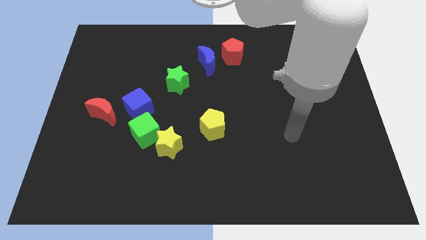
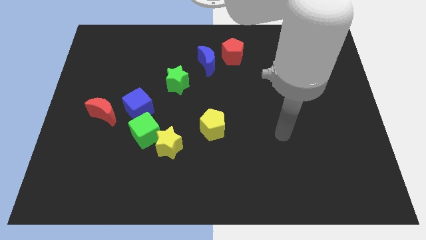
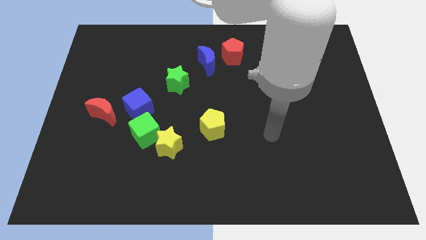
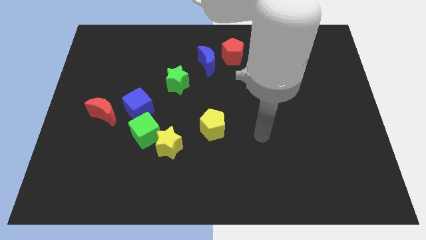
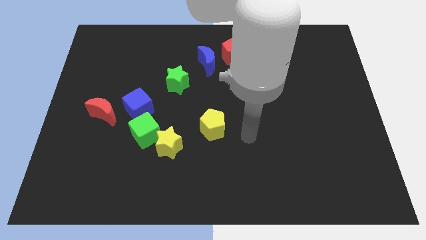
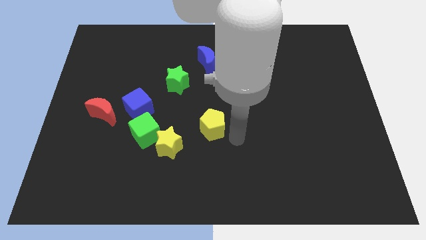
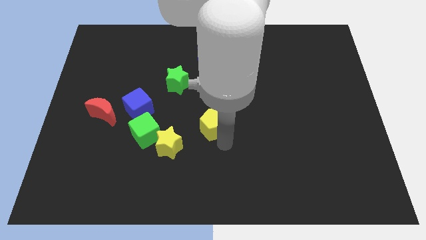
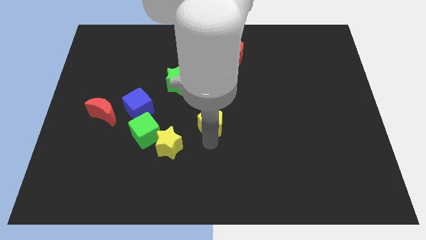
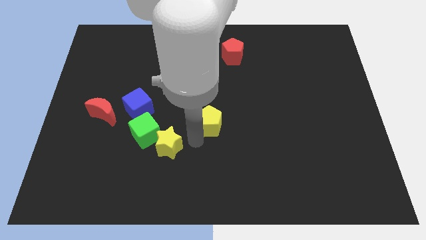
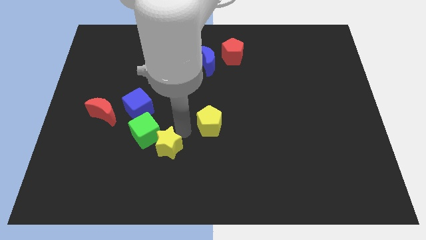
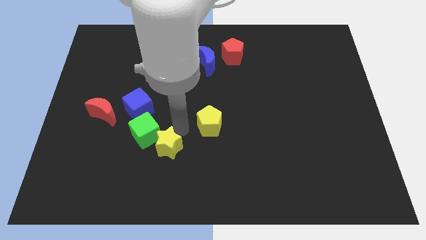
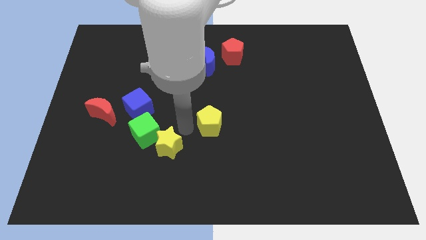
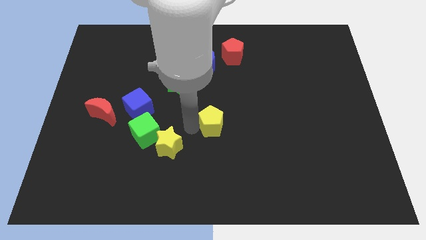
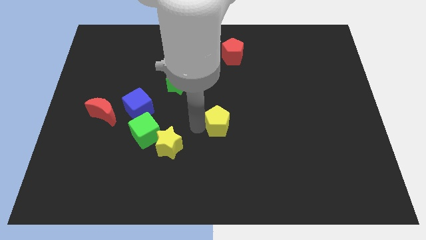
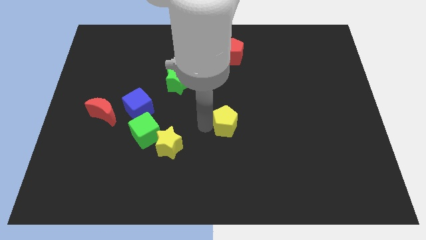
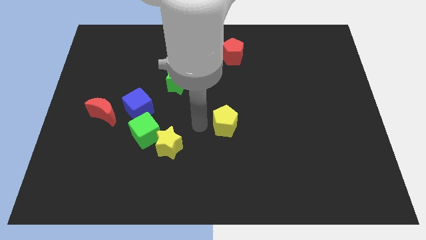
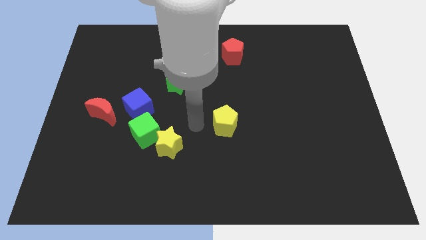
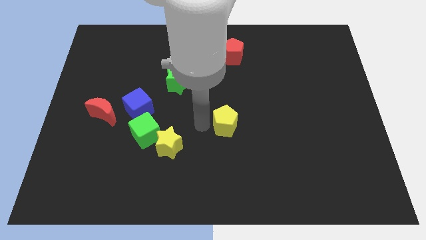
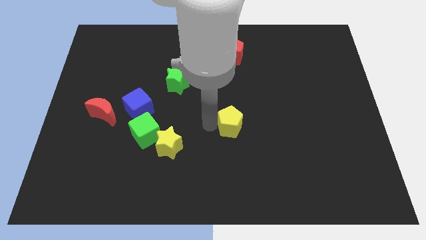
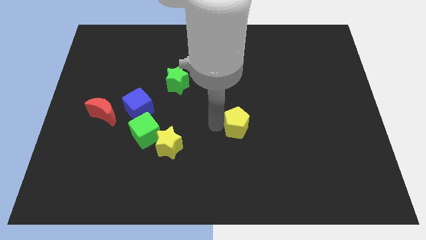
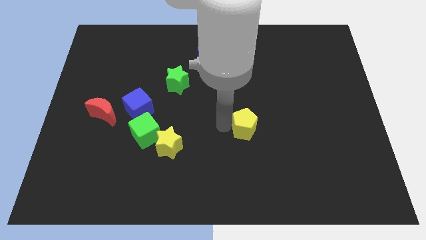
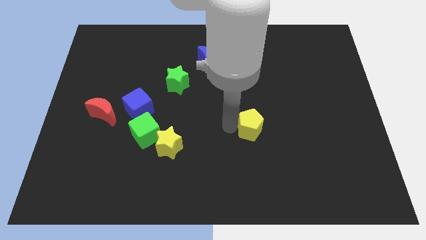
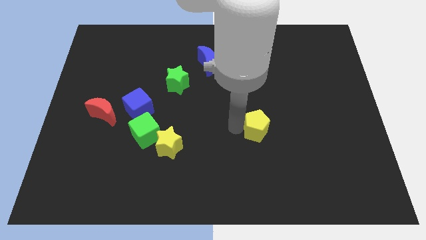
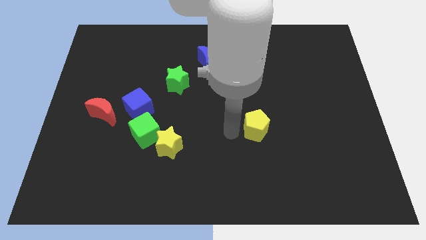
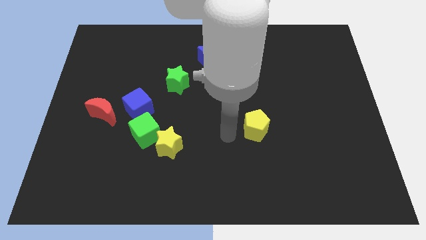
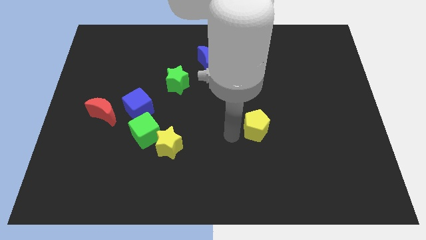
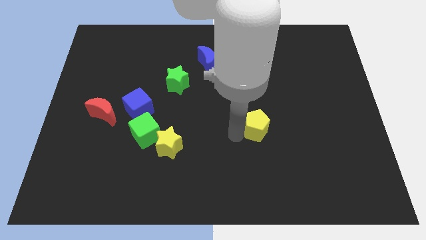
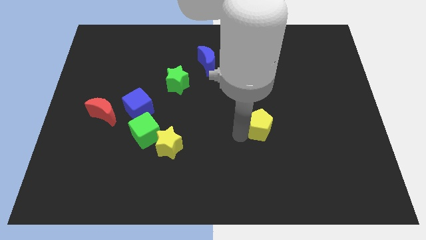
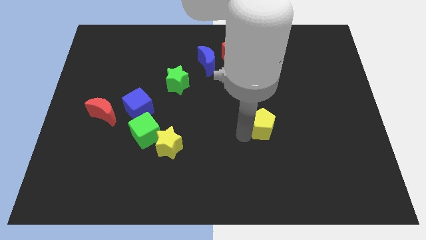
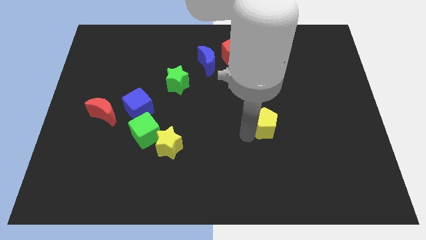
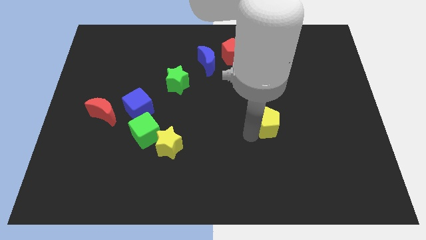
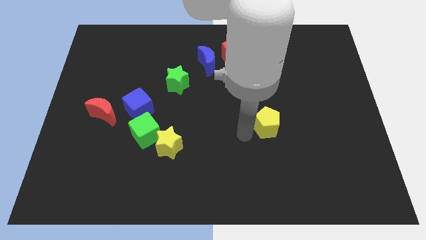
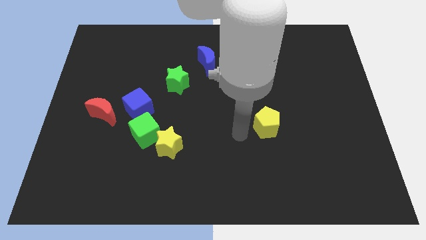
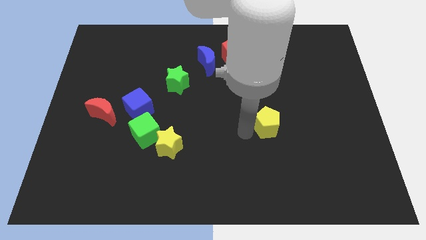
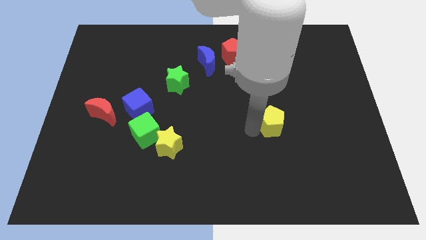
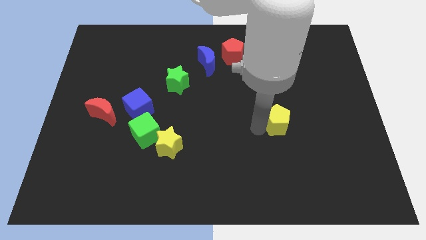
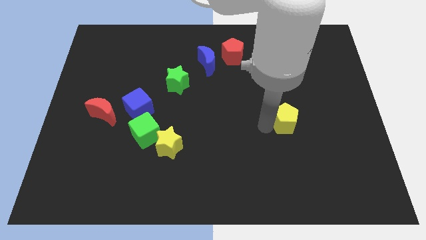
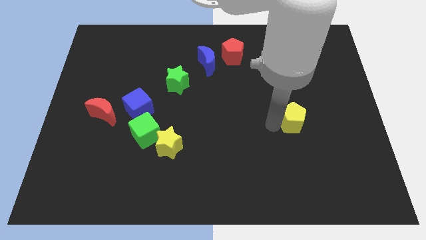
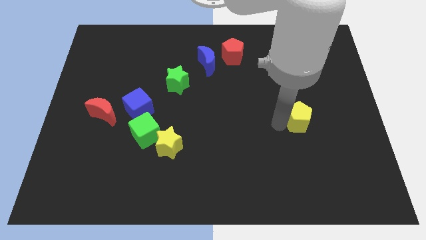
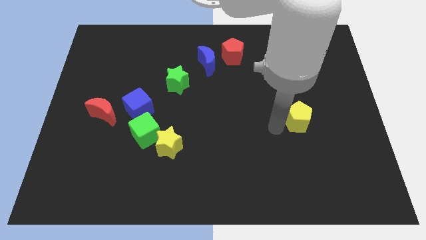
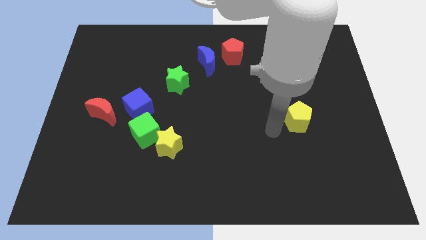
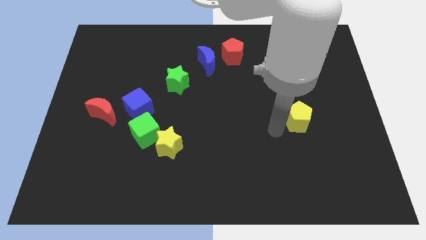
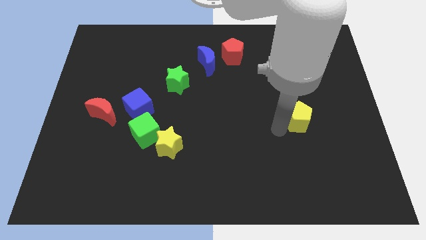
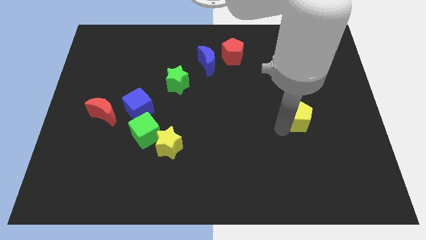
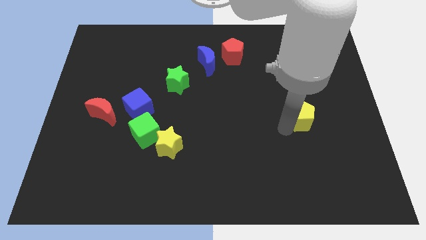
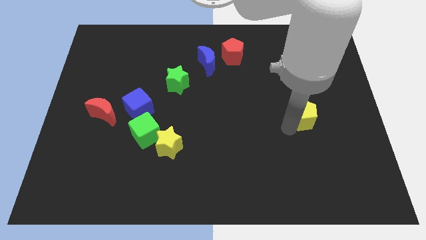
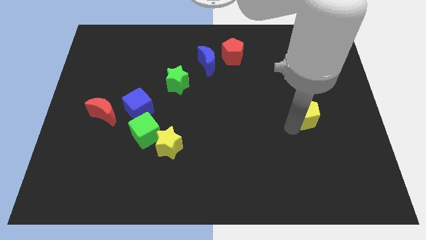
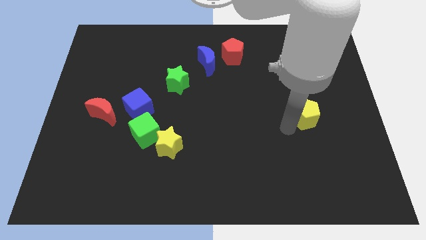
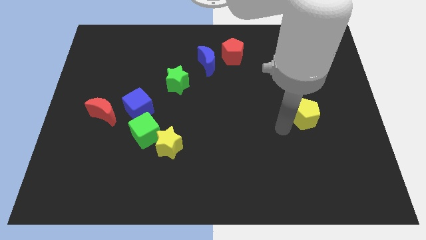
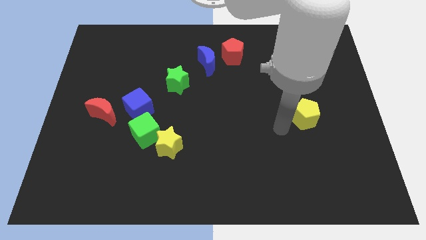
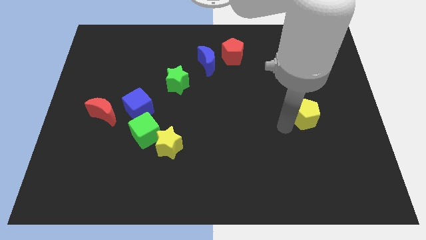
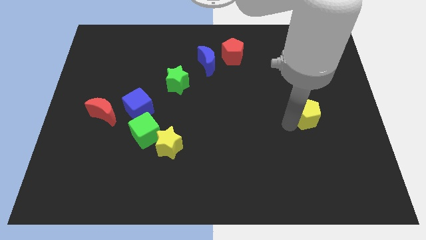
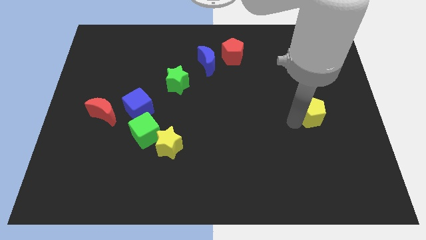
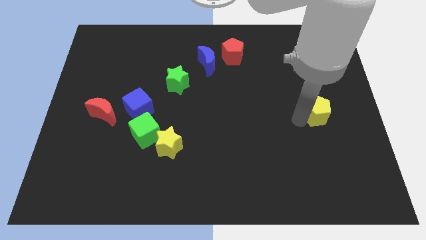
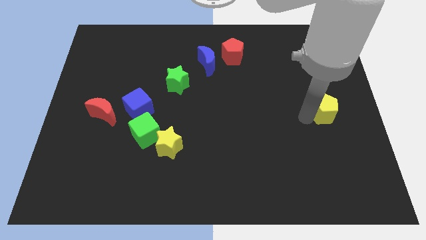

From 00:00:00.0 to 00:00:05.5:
put the yellow pentagon to the right side

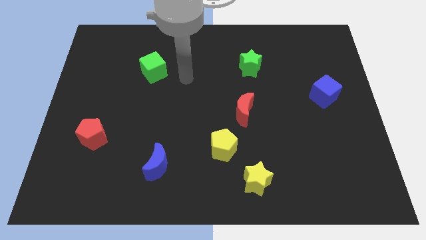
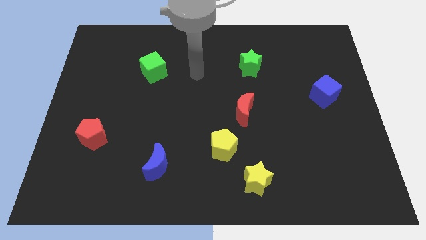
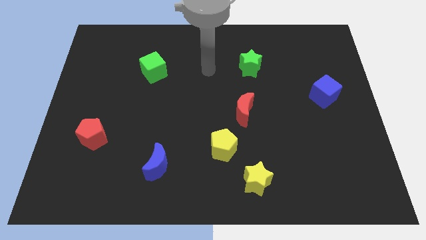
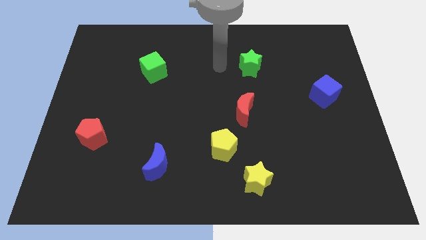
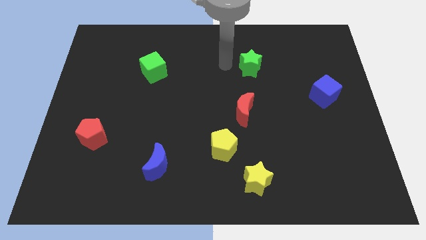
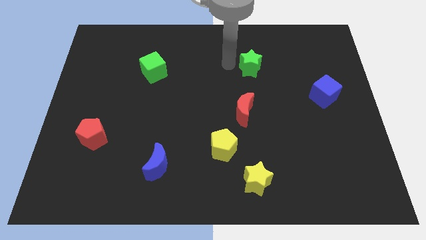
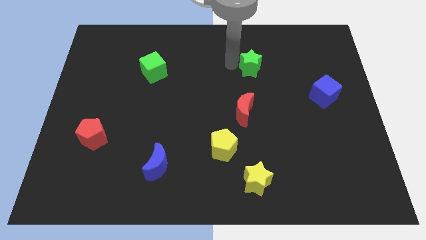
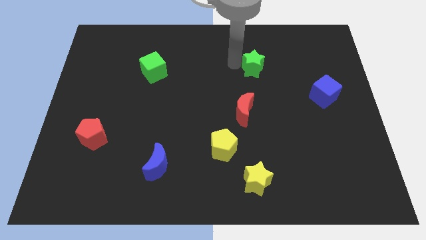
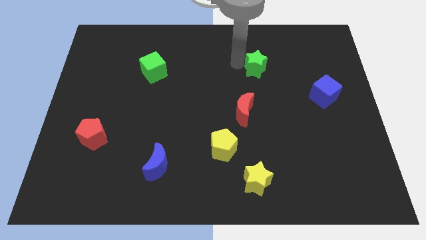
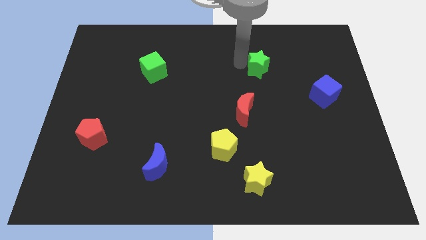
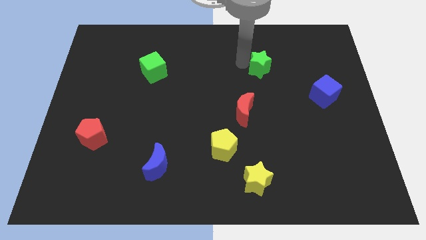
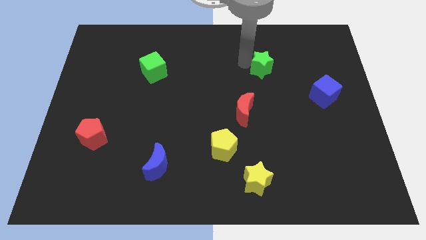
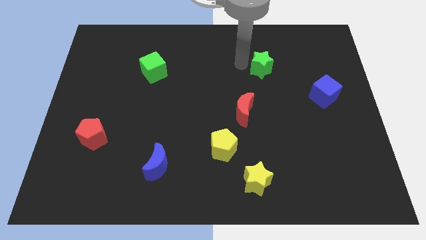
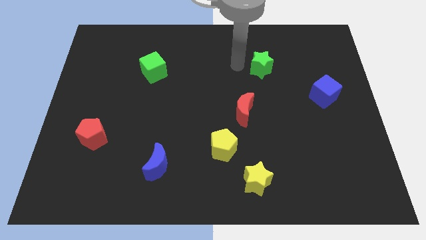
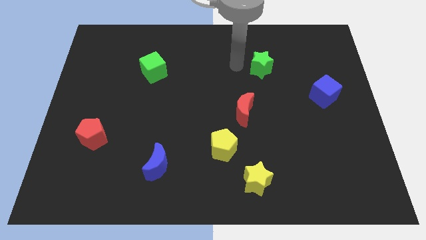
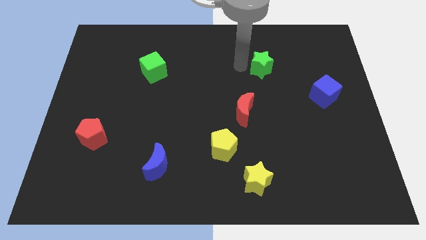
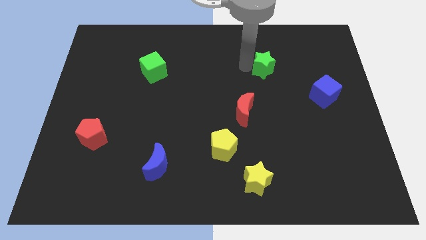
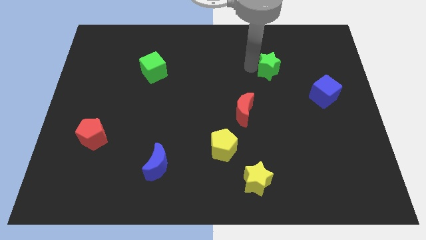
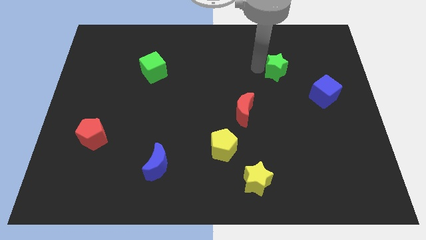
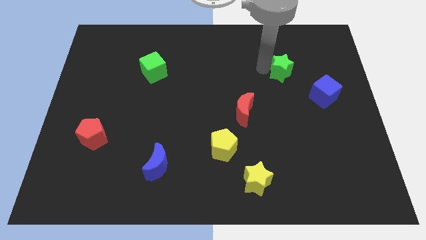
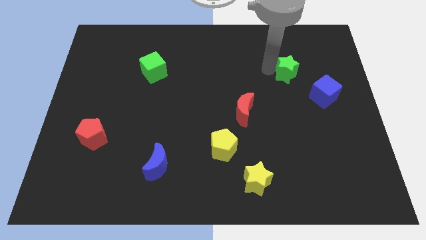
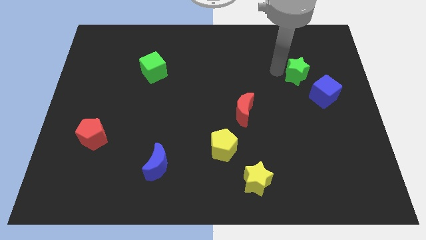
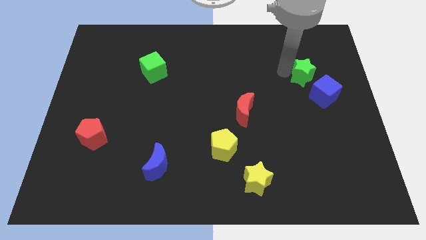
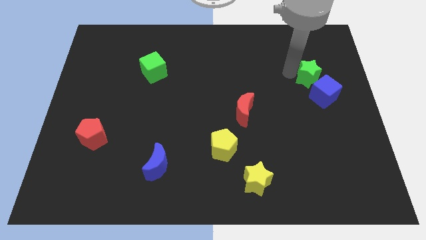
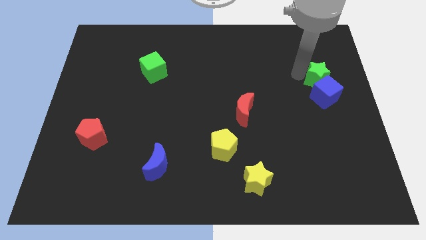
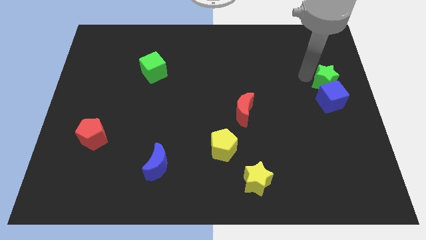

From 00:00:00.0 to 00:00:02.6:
slide the green star to the right side of the board
